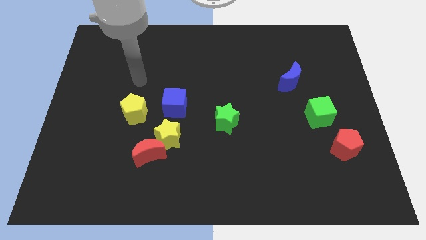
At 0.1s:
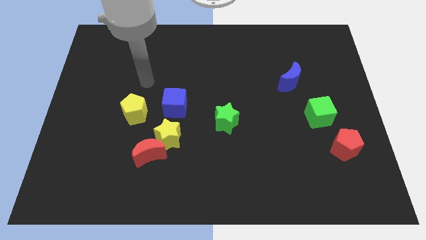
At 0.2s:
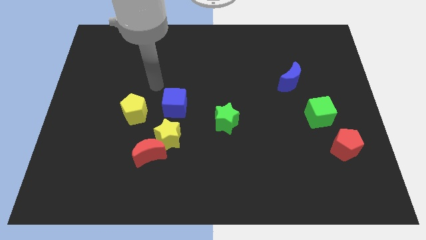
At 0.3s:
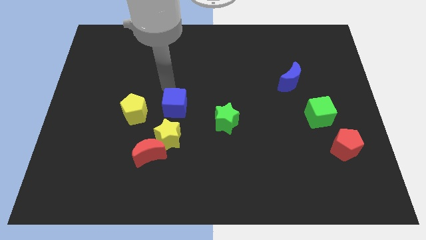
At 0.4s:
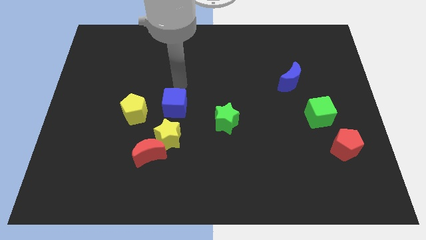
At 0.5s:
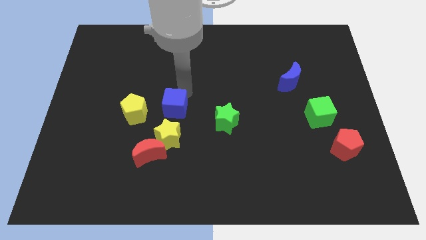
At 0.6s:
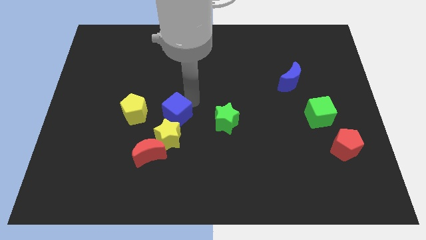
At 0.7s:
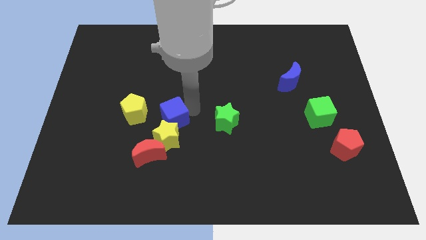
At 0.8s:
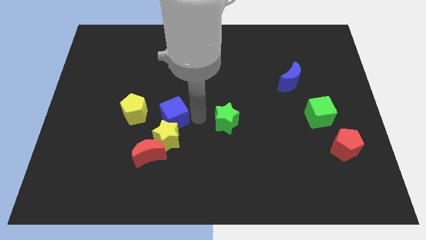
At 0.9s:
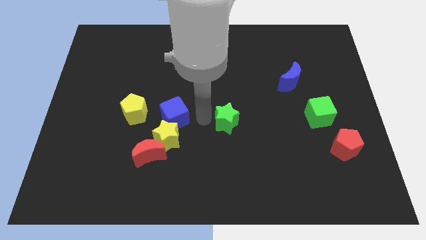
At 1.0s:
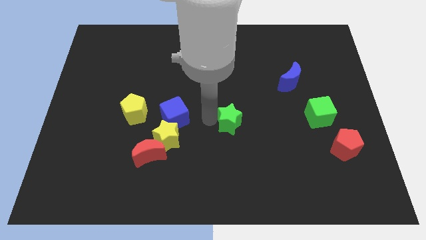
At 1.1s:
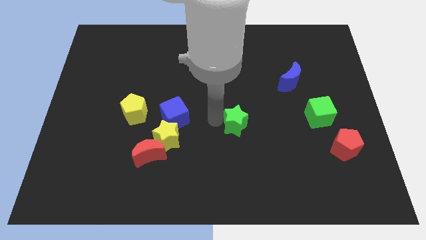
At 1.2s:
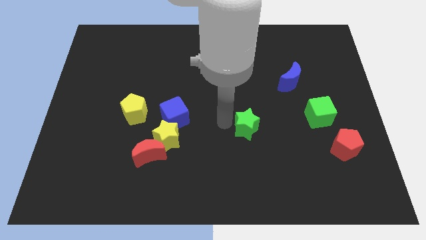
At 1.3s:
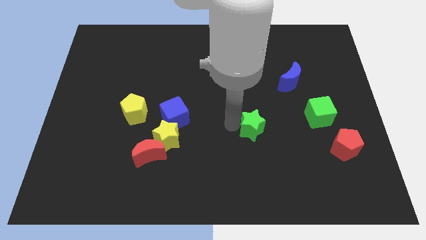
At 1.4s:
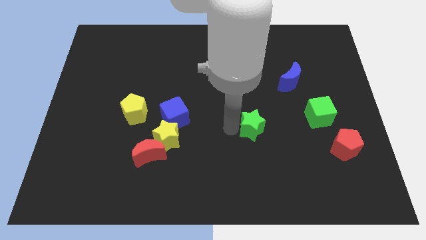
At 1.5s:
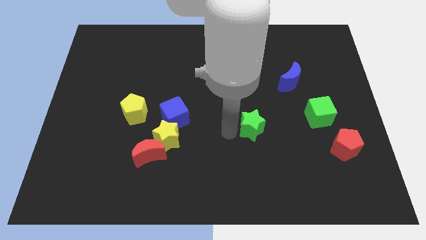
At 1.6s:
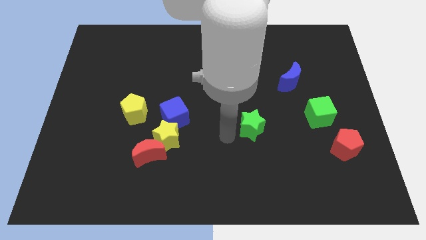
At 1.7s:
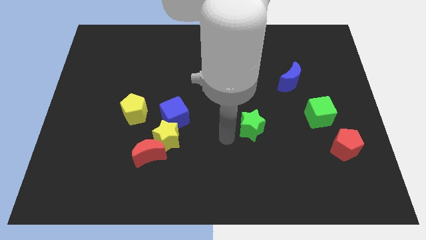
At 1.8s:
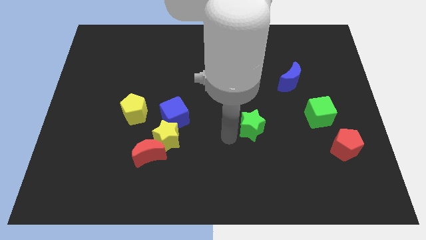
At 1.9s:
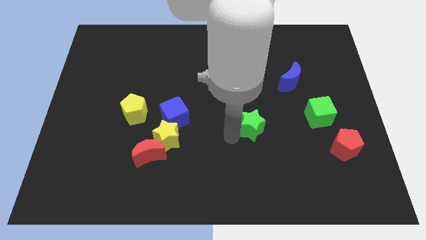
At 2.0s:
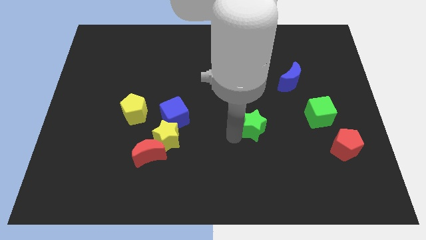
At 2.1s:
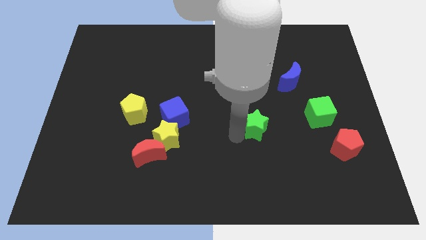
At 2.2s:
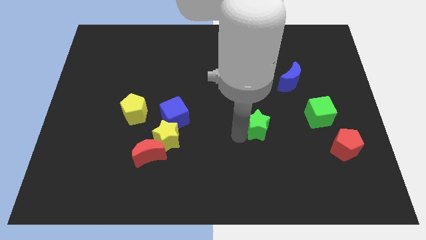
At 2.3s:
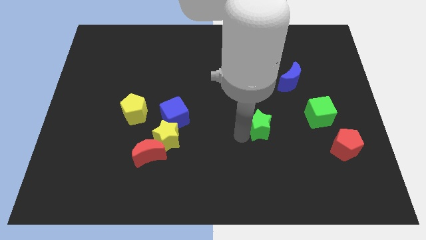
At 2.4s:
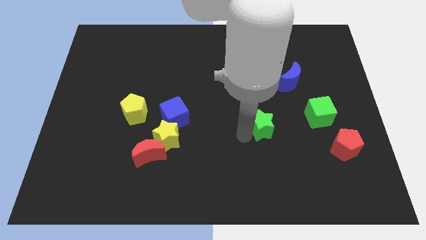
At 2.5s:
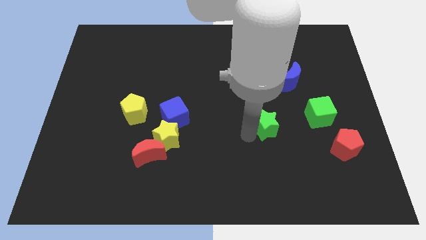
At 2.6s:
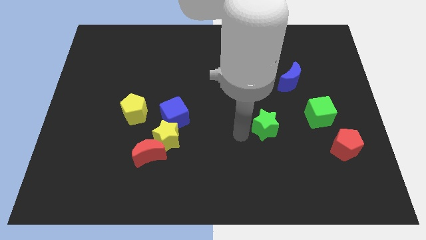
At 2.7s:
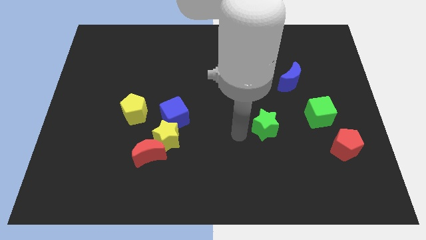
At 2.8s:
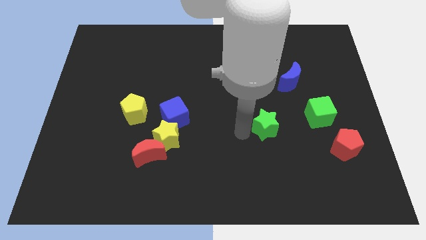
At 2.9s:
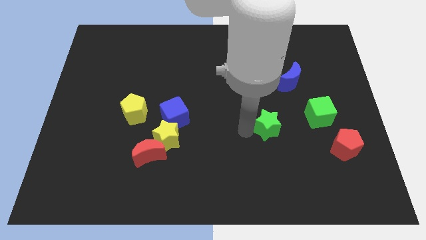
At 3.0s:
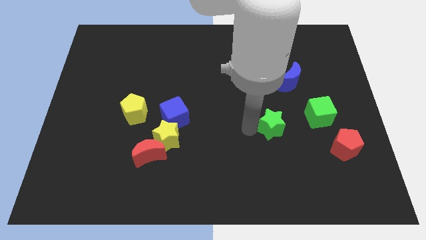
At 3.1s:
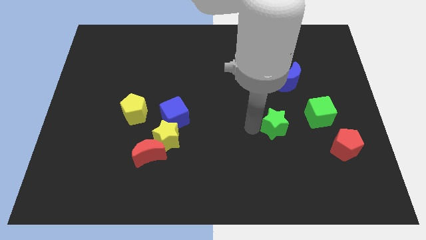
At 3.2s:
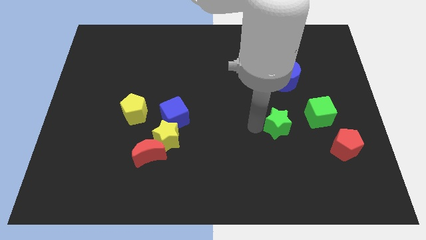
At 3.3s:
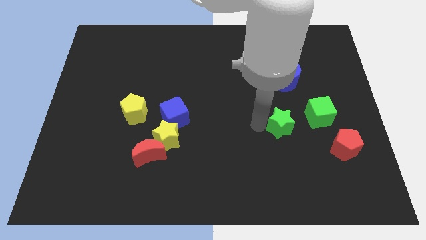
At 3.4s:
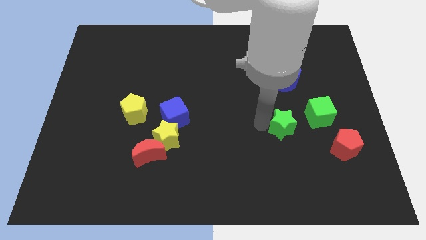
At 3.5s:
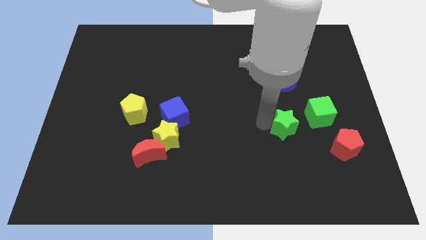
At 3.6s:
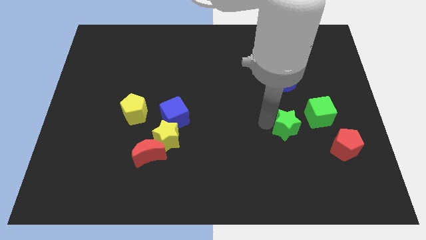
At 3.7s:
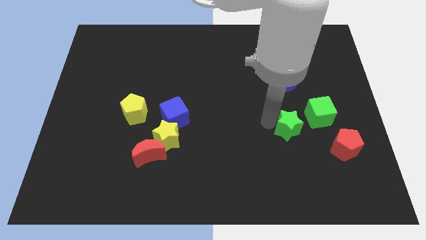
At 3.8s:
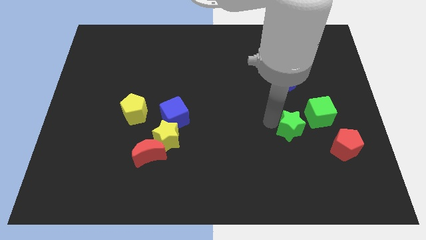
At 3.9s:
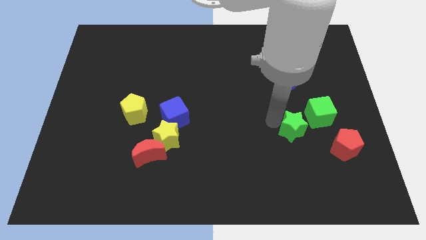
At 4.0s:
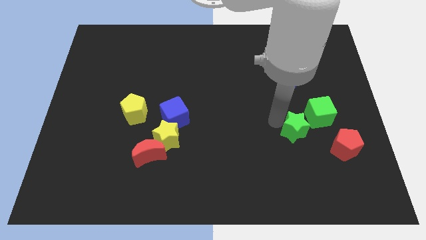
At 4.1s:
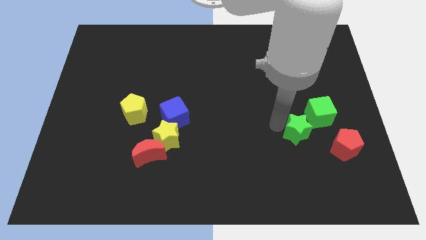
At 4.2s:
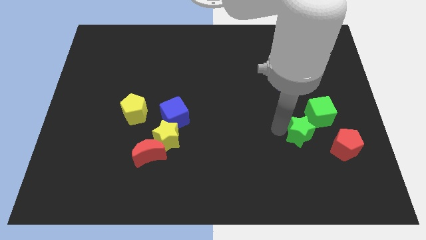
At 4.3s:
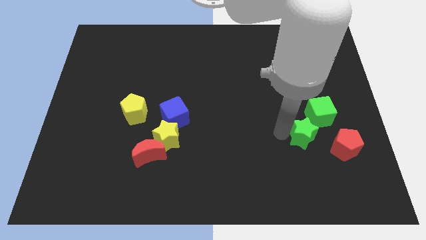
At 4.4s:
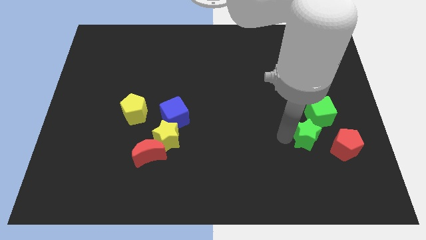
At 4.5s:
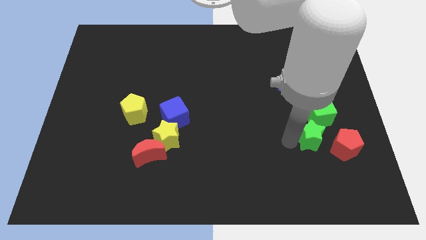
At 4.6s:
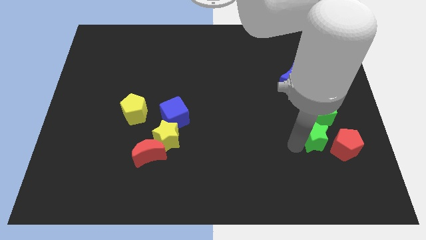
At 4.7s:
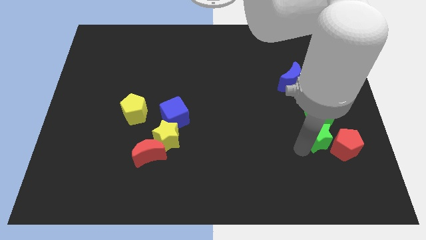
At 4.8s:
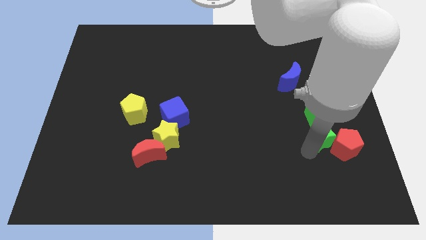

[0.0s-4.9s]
move the green star next to the green cube

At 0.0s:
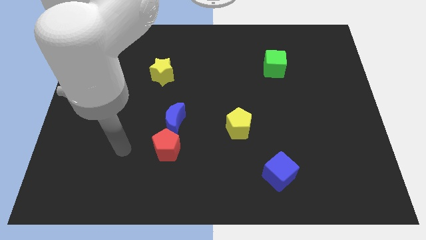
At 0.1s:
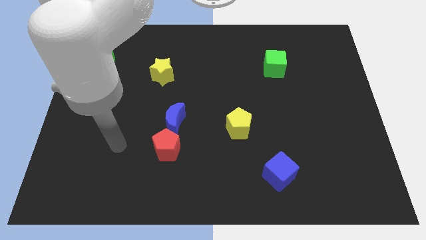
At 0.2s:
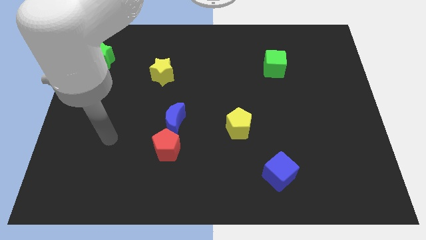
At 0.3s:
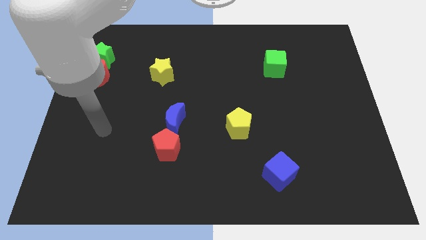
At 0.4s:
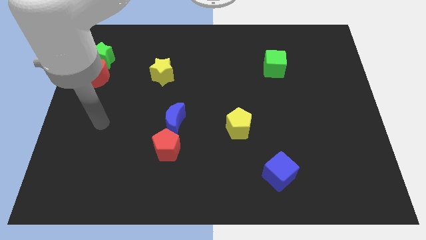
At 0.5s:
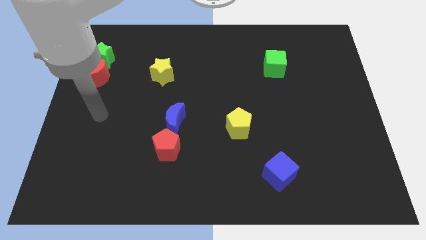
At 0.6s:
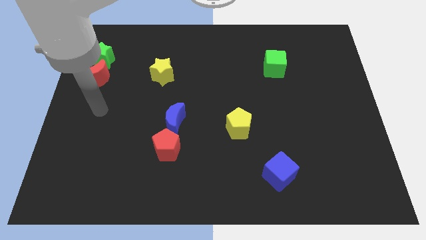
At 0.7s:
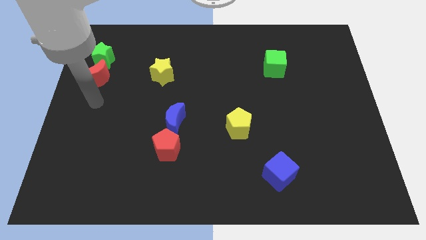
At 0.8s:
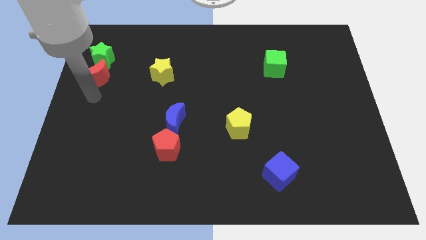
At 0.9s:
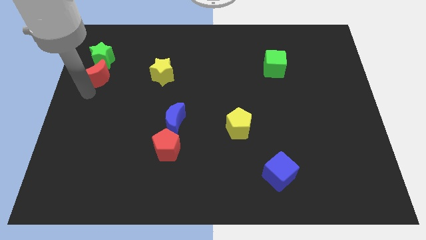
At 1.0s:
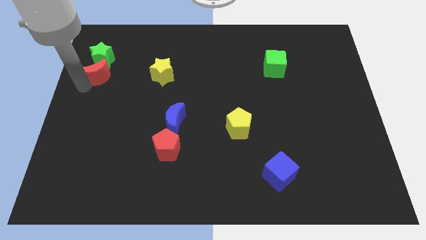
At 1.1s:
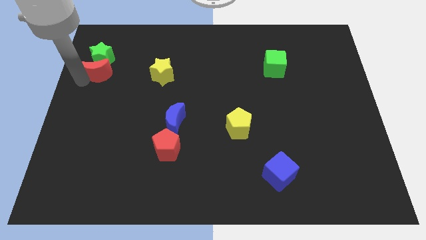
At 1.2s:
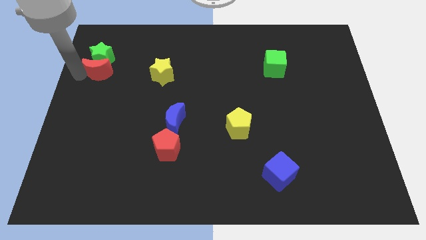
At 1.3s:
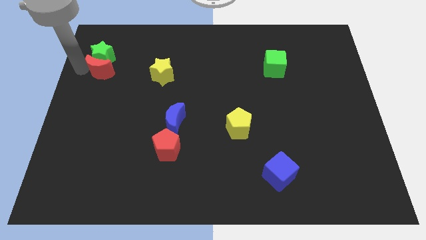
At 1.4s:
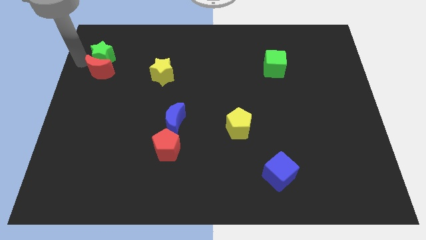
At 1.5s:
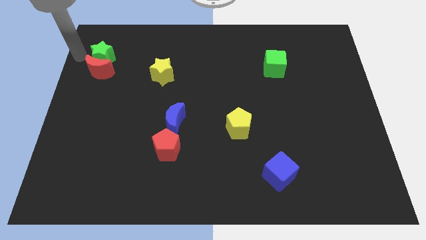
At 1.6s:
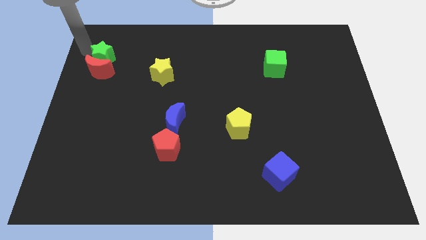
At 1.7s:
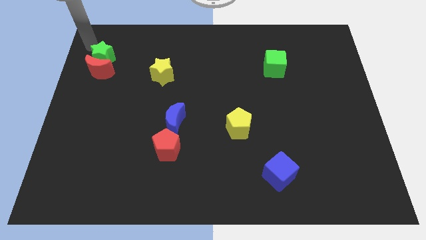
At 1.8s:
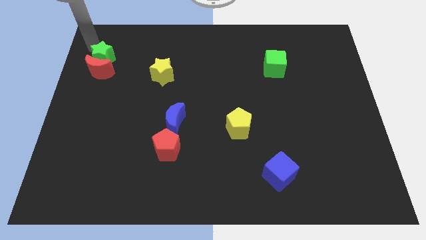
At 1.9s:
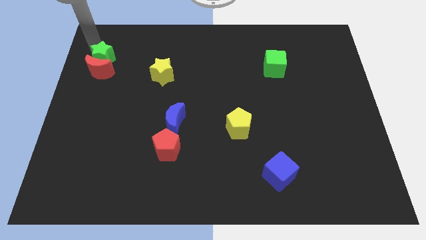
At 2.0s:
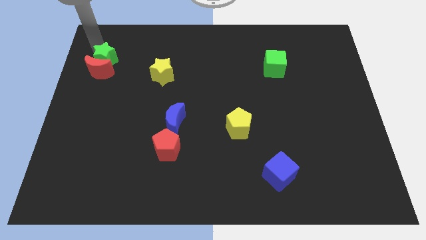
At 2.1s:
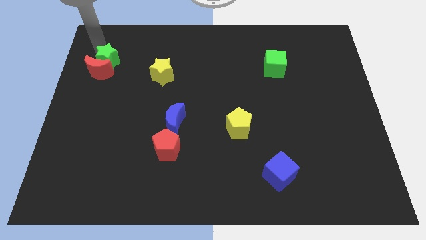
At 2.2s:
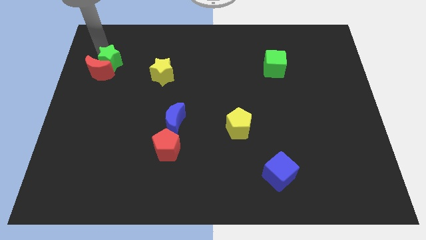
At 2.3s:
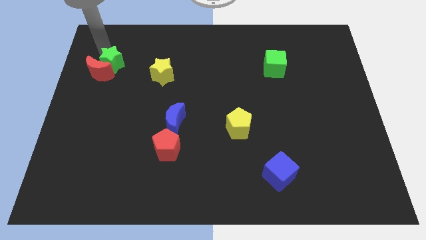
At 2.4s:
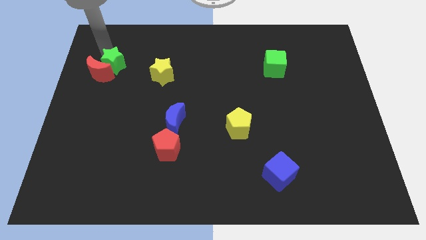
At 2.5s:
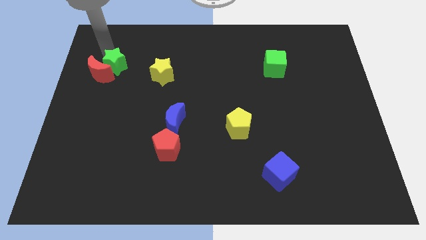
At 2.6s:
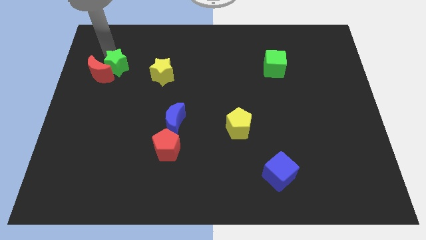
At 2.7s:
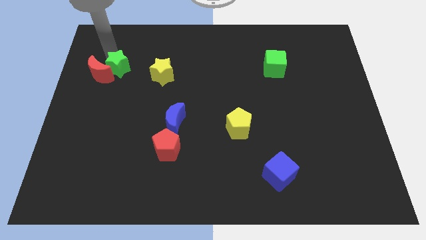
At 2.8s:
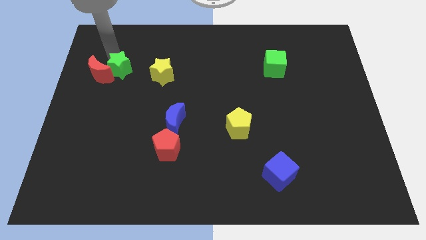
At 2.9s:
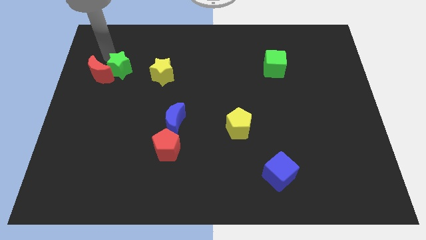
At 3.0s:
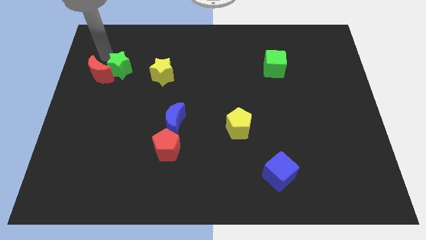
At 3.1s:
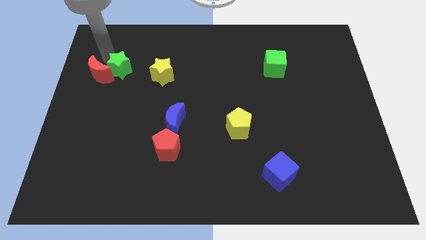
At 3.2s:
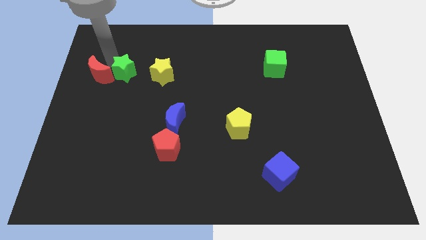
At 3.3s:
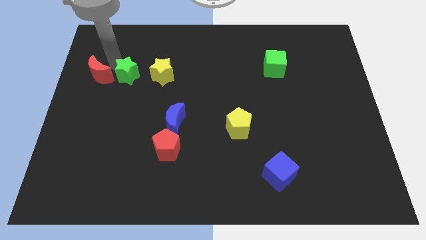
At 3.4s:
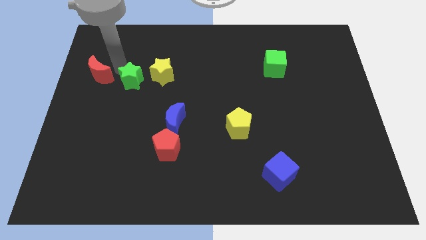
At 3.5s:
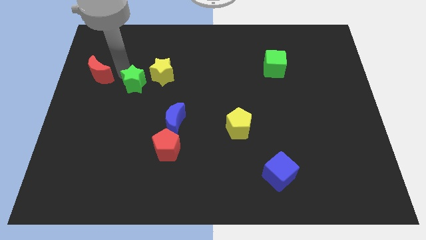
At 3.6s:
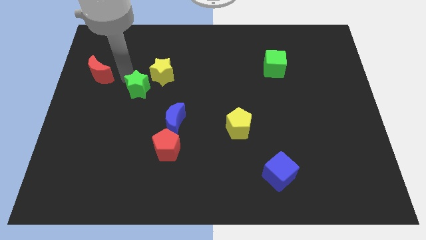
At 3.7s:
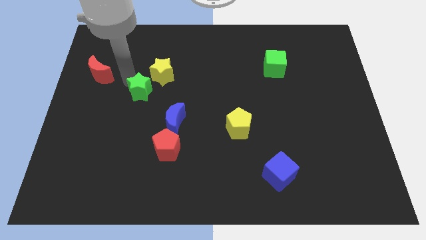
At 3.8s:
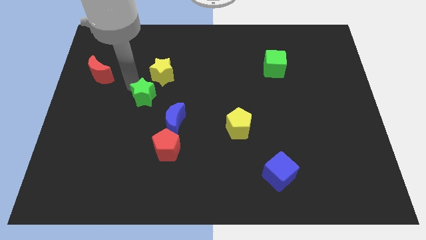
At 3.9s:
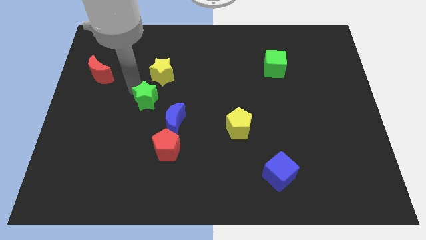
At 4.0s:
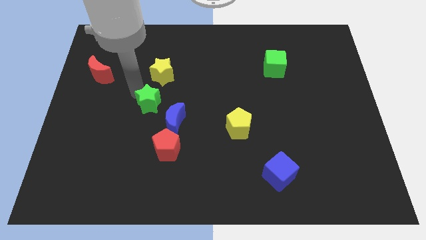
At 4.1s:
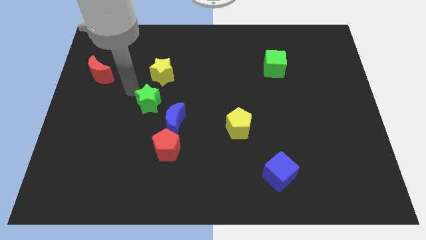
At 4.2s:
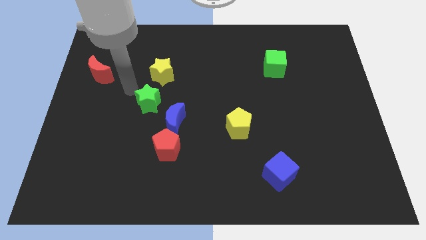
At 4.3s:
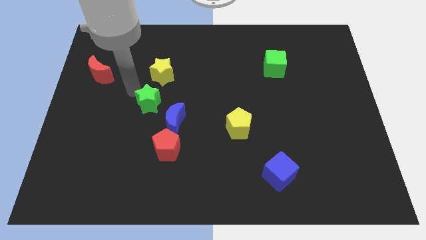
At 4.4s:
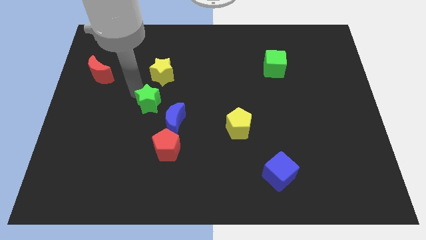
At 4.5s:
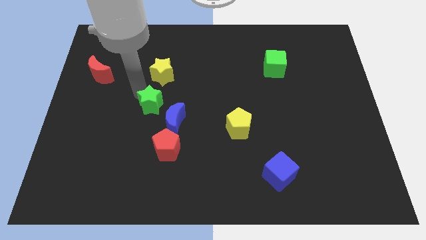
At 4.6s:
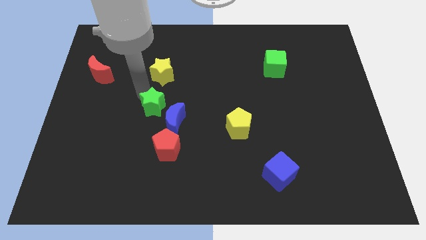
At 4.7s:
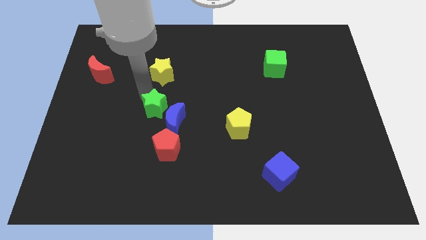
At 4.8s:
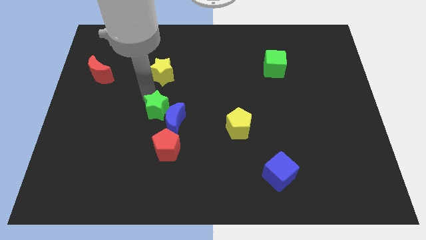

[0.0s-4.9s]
push the green star towards the blue moon
